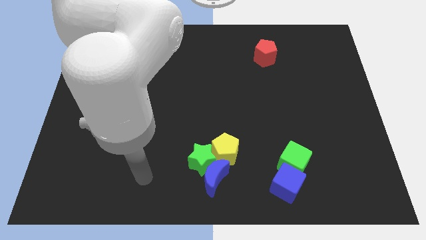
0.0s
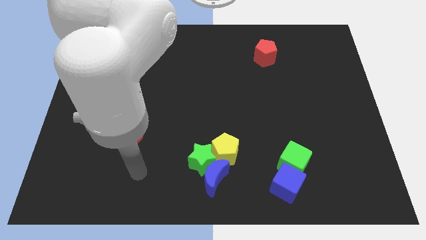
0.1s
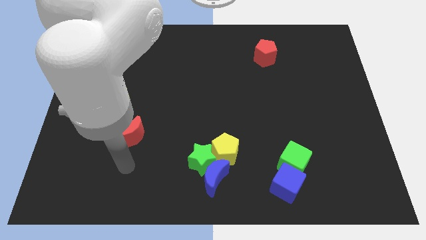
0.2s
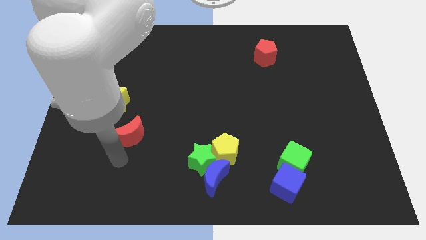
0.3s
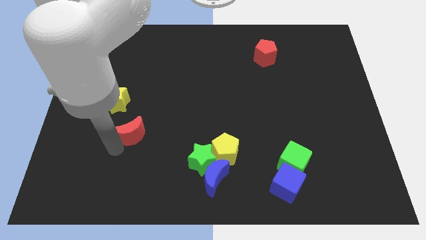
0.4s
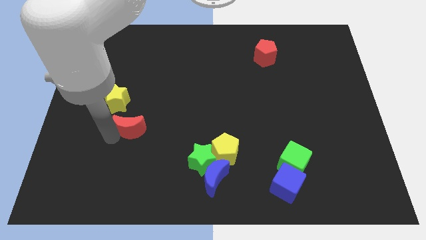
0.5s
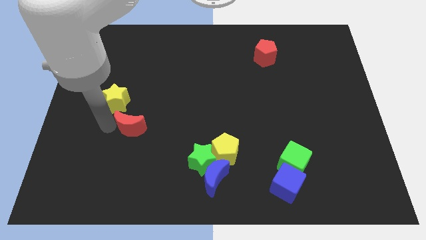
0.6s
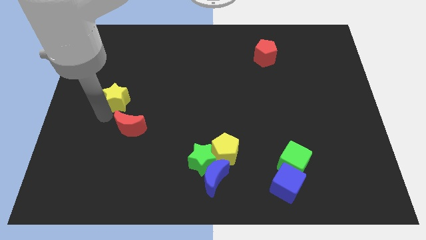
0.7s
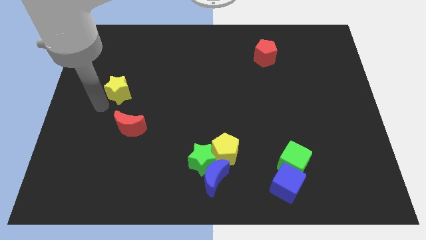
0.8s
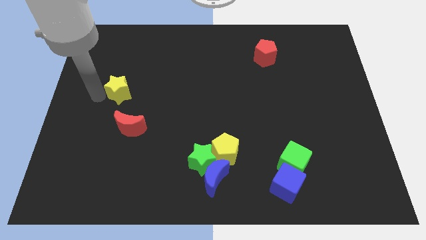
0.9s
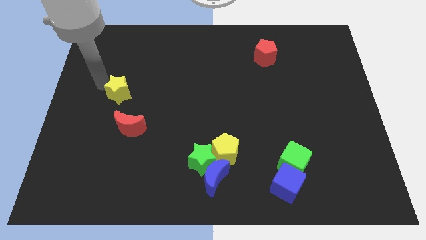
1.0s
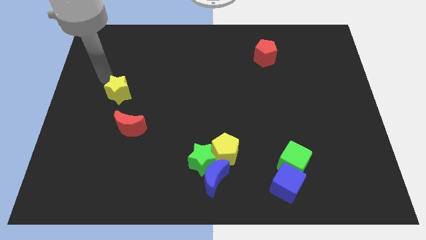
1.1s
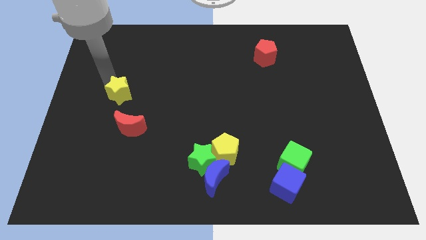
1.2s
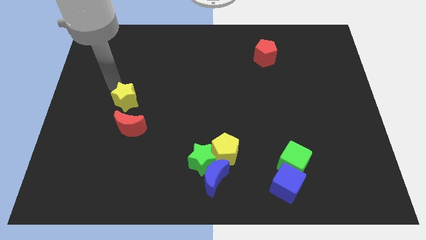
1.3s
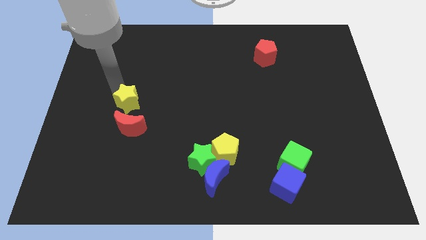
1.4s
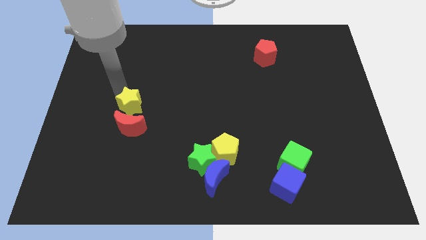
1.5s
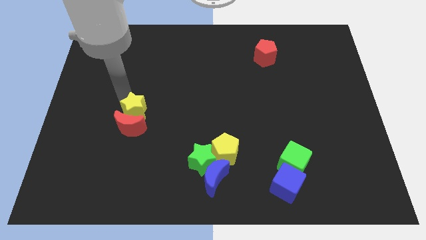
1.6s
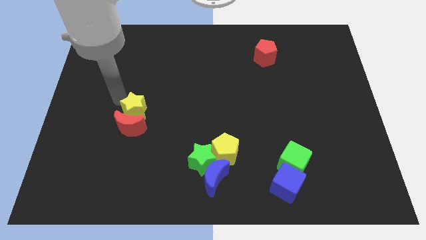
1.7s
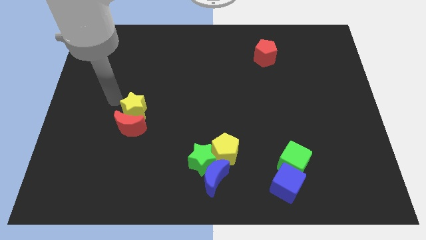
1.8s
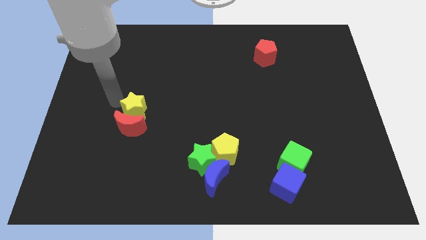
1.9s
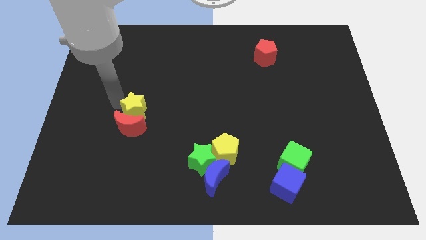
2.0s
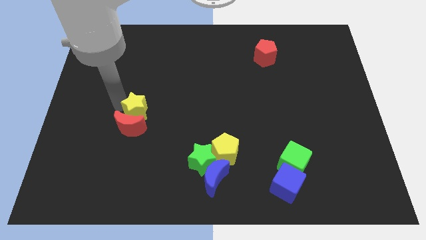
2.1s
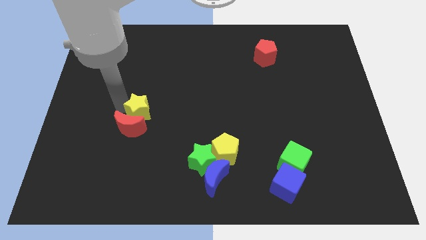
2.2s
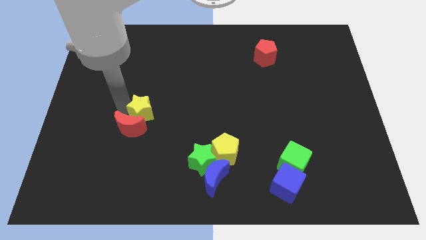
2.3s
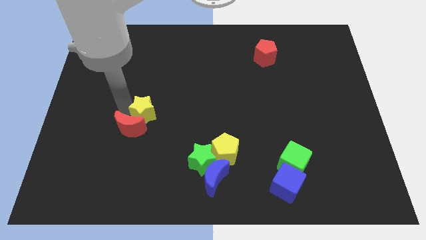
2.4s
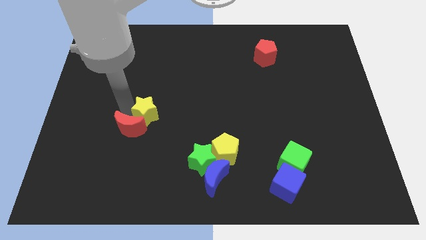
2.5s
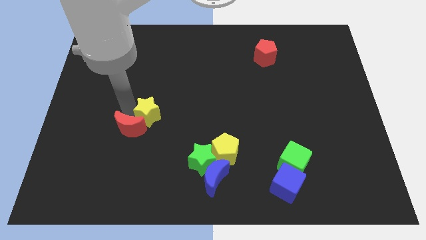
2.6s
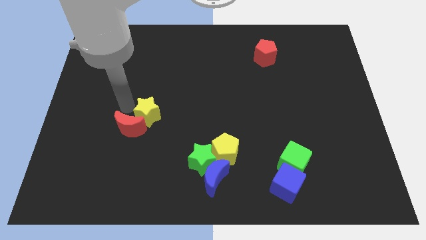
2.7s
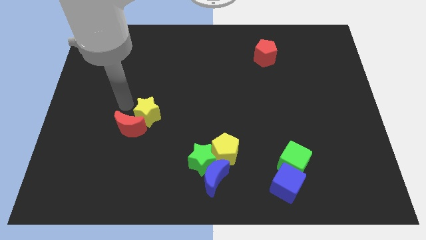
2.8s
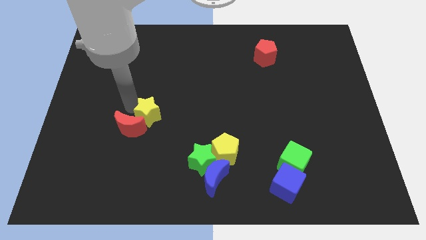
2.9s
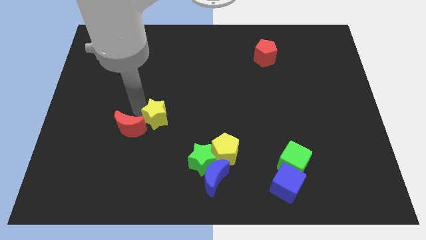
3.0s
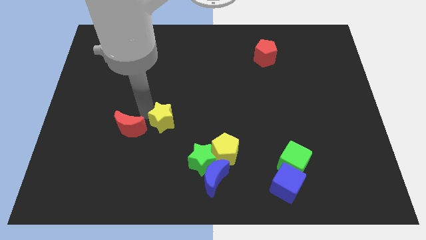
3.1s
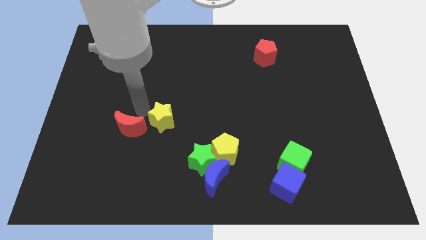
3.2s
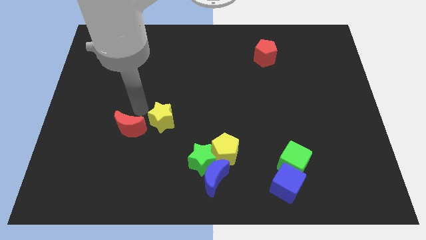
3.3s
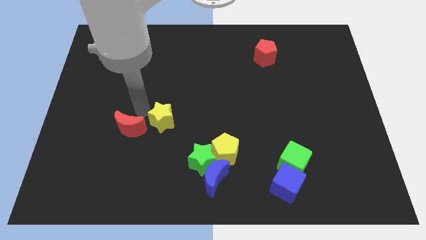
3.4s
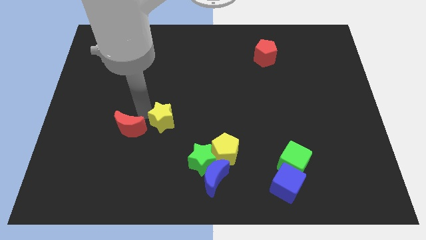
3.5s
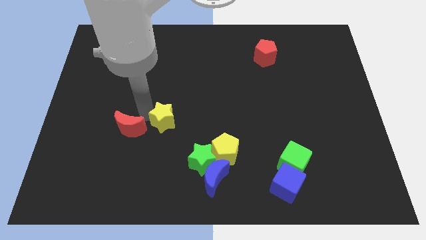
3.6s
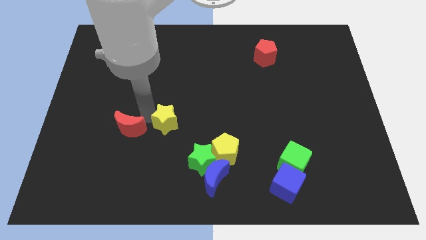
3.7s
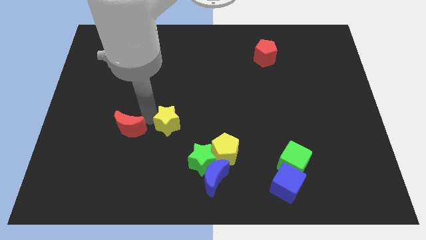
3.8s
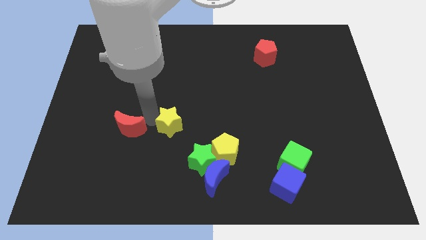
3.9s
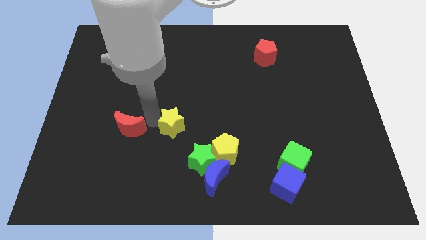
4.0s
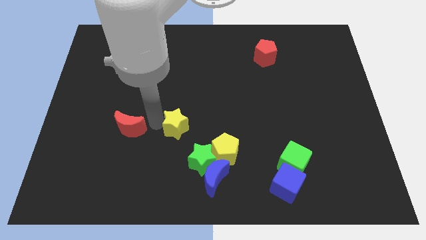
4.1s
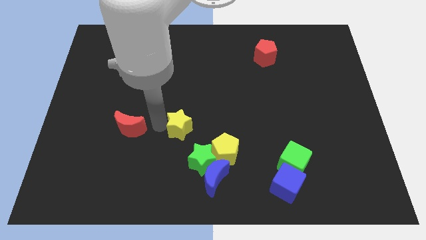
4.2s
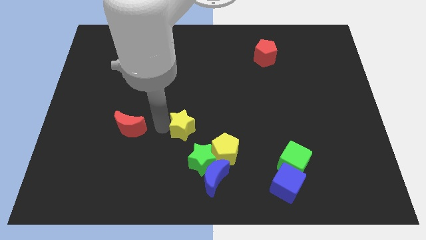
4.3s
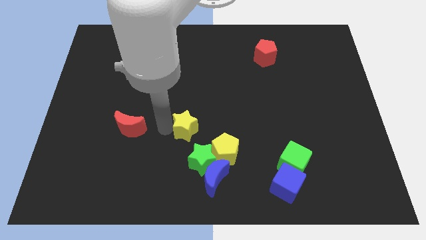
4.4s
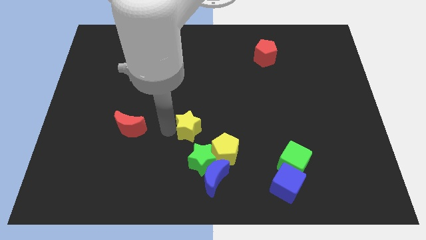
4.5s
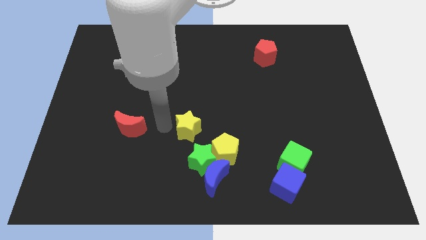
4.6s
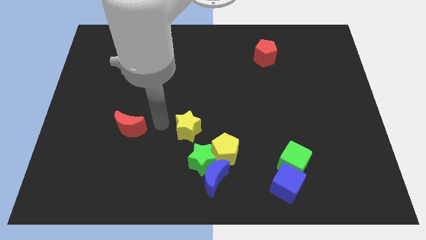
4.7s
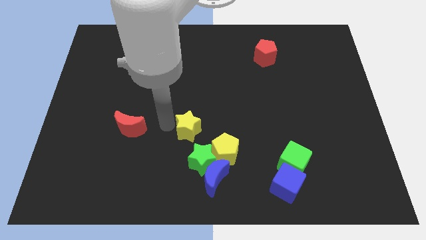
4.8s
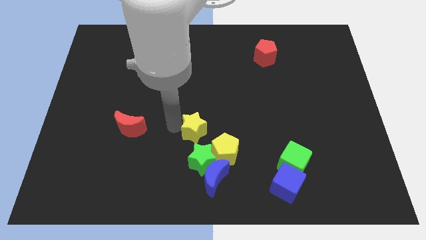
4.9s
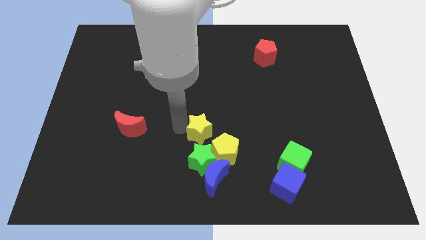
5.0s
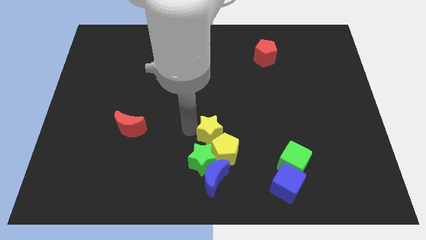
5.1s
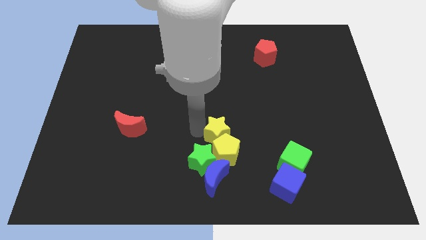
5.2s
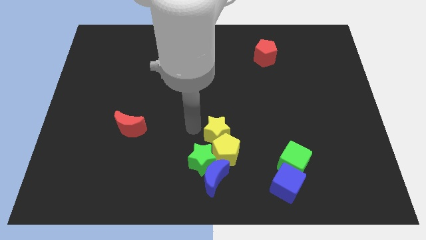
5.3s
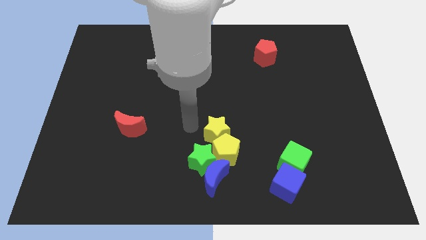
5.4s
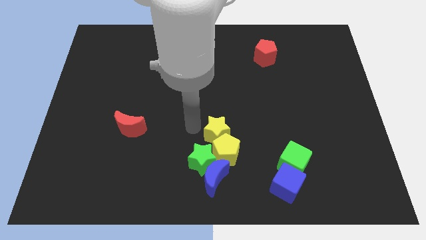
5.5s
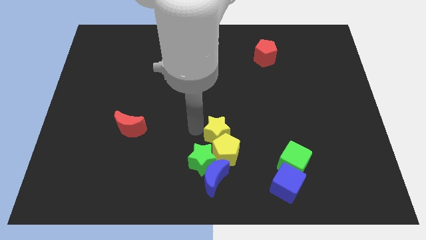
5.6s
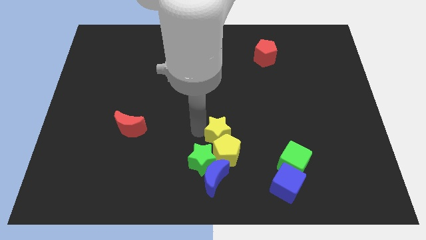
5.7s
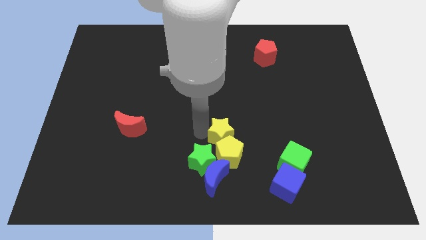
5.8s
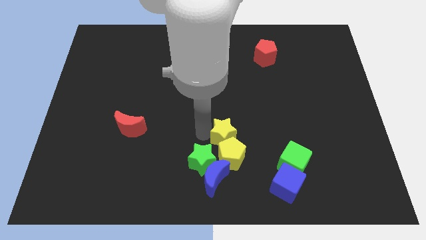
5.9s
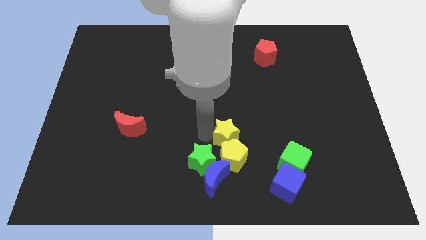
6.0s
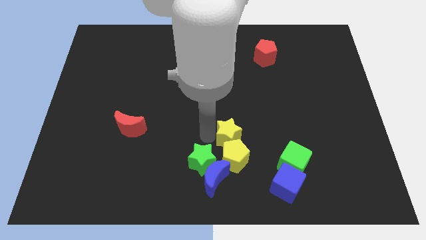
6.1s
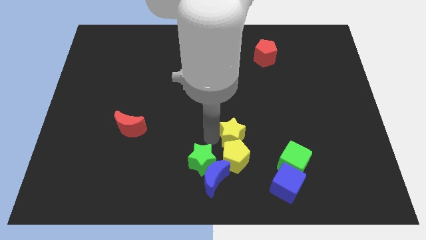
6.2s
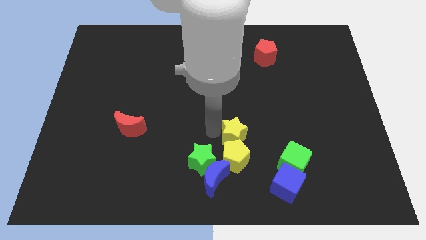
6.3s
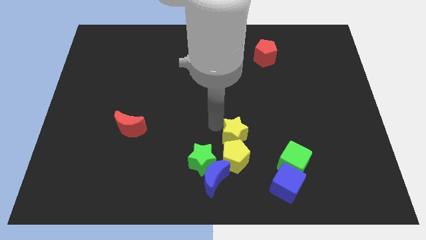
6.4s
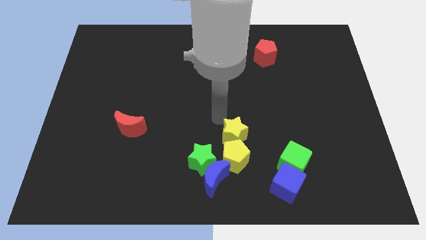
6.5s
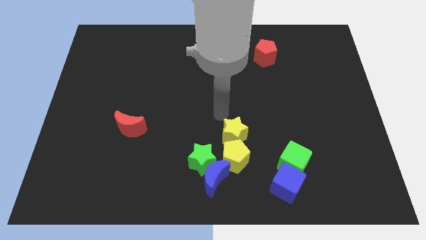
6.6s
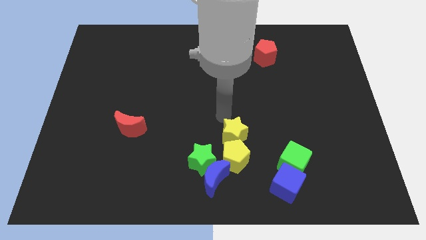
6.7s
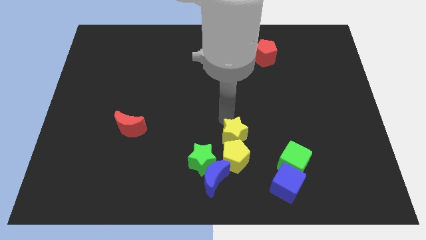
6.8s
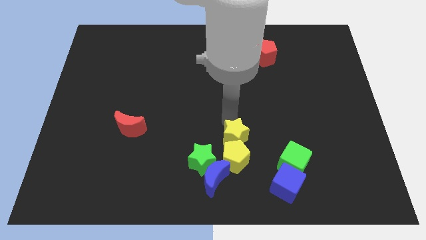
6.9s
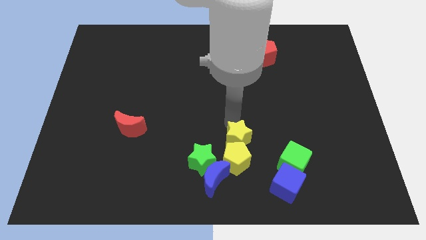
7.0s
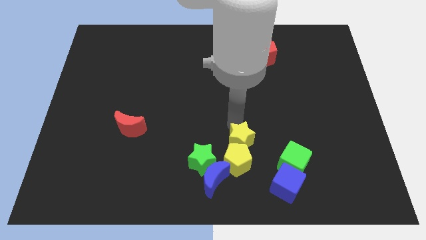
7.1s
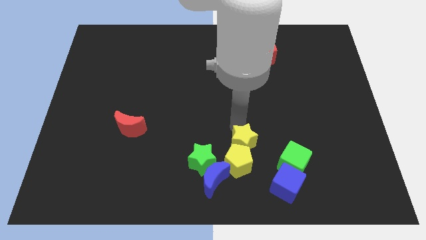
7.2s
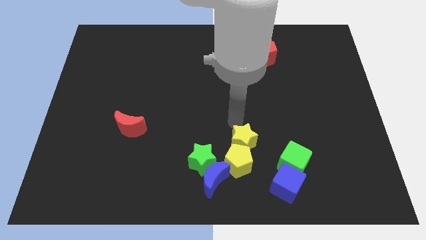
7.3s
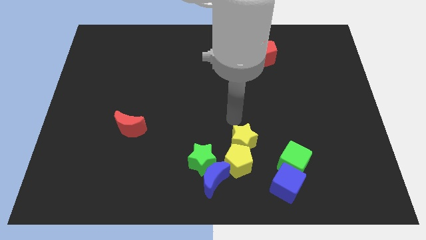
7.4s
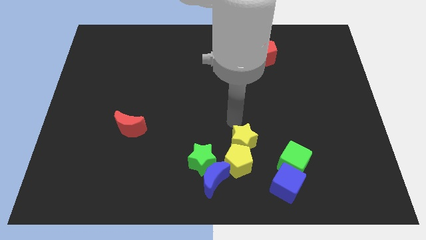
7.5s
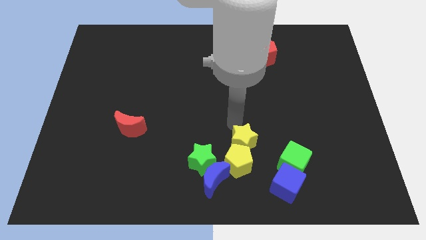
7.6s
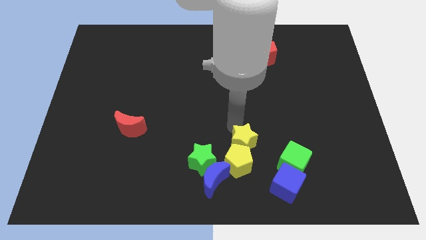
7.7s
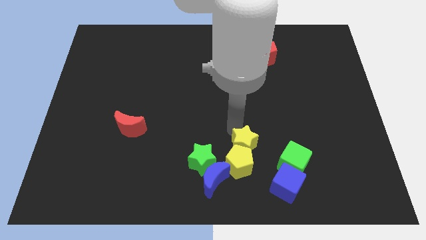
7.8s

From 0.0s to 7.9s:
slide the yellow star right of the green star
